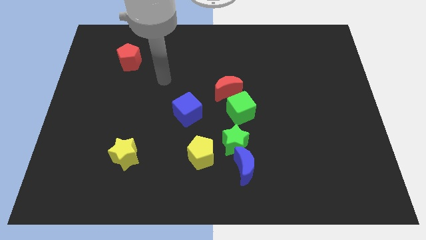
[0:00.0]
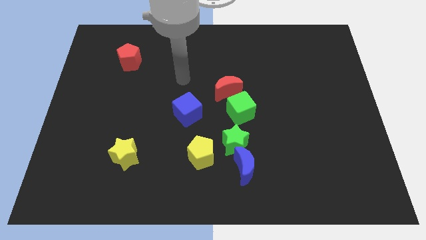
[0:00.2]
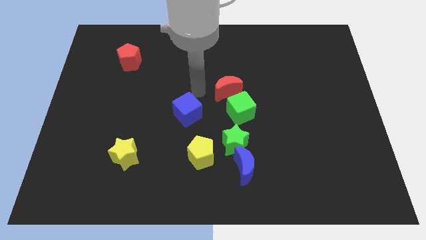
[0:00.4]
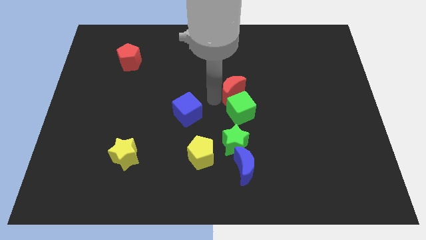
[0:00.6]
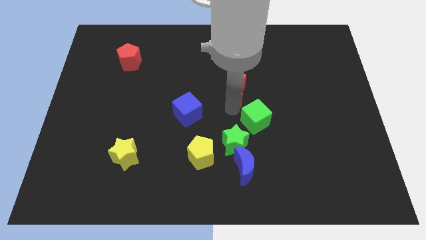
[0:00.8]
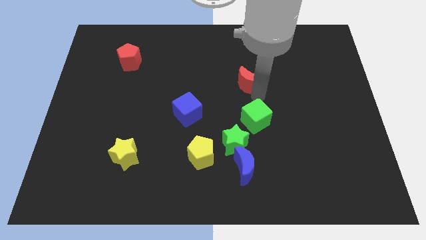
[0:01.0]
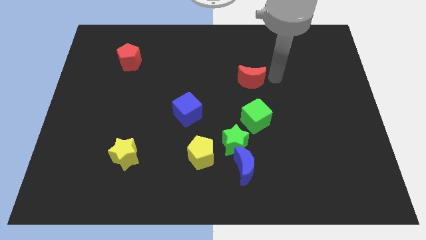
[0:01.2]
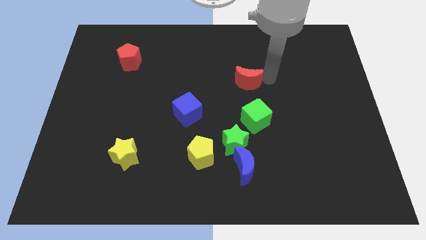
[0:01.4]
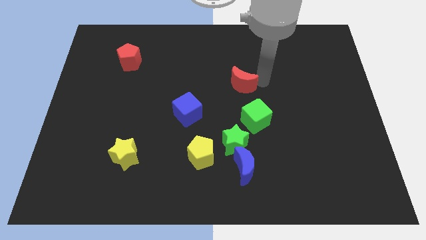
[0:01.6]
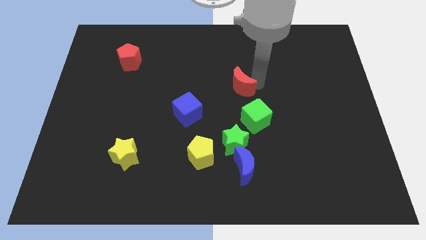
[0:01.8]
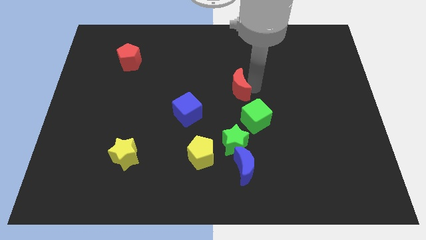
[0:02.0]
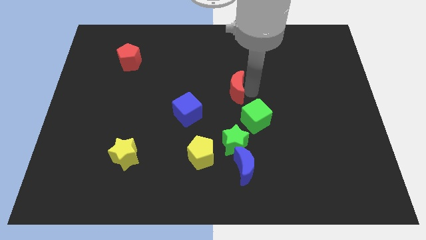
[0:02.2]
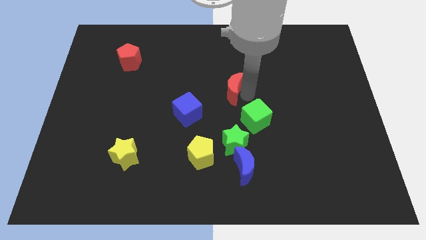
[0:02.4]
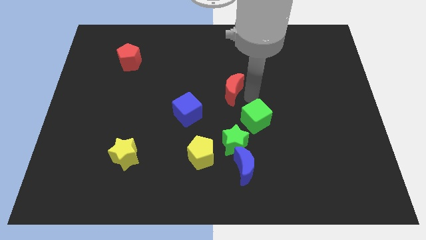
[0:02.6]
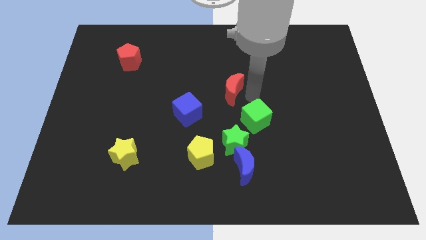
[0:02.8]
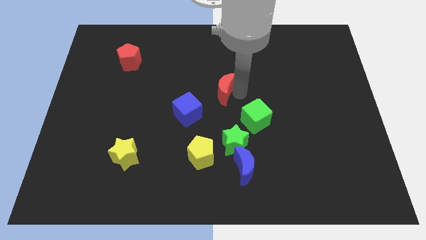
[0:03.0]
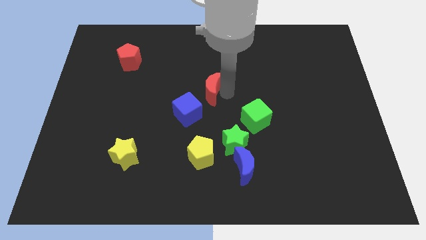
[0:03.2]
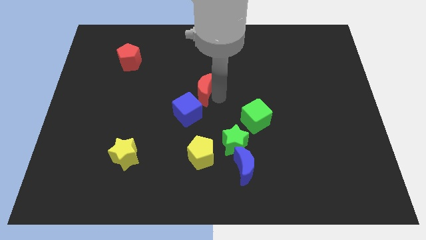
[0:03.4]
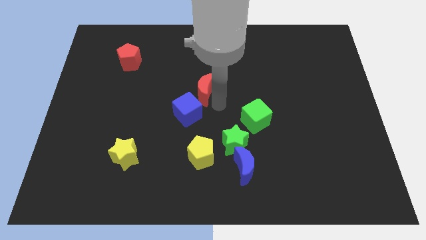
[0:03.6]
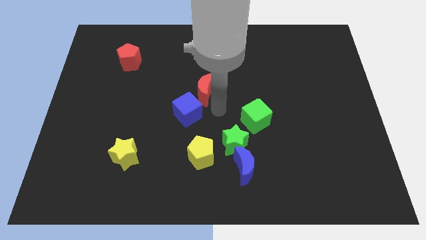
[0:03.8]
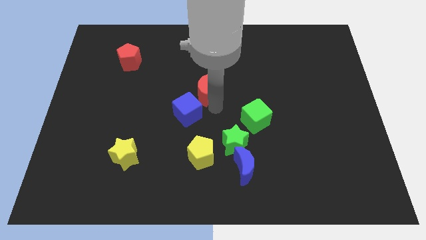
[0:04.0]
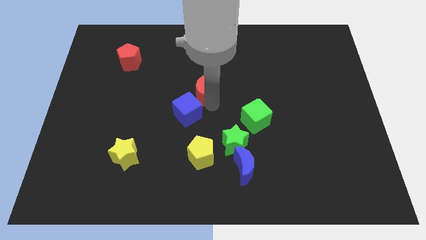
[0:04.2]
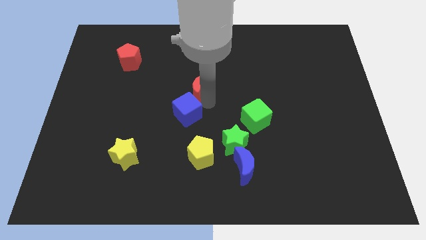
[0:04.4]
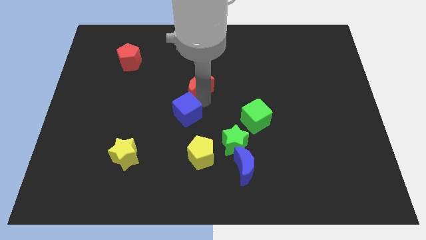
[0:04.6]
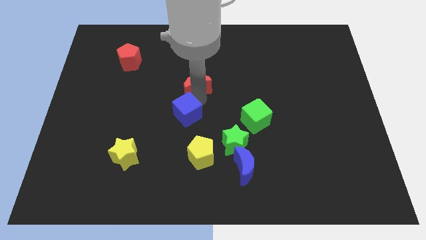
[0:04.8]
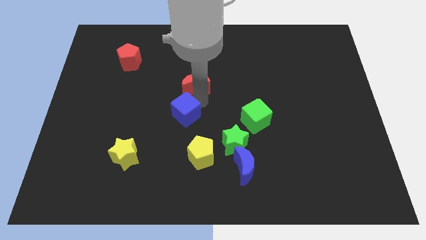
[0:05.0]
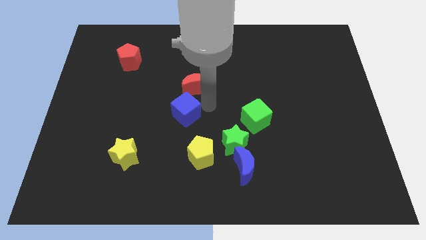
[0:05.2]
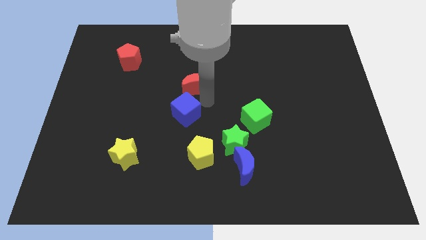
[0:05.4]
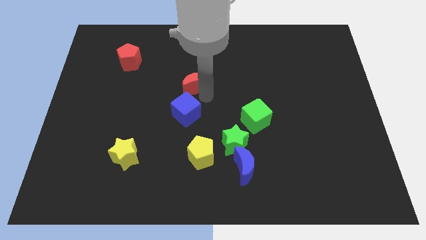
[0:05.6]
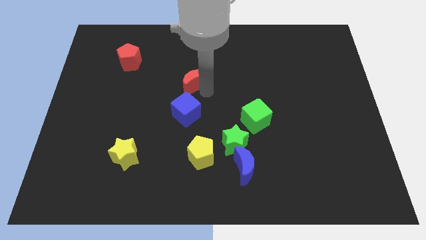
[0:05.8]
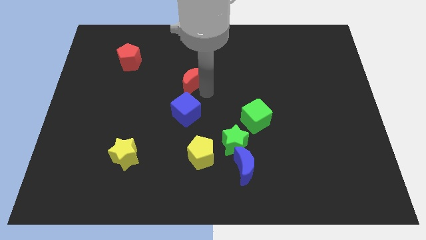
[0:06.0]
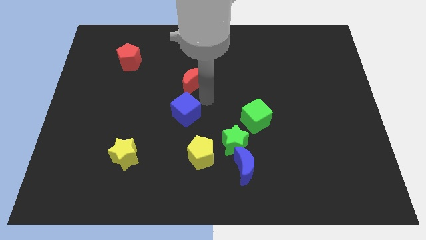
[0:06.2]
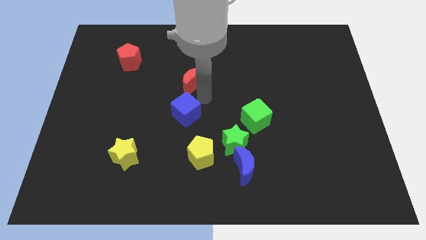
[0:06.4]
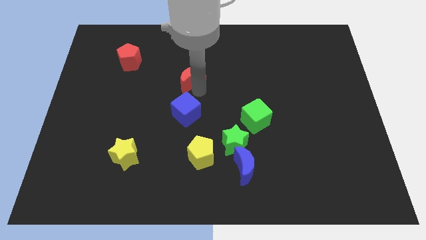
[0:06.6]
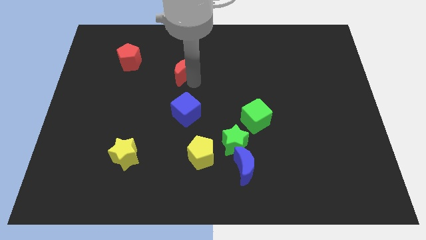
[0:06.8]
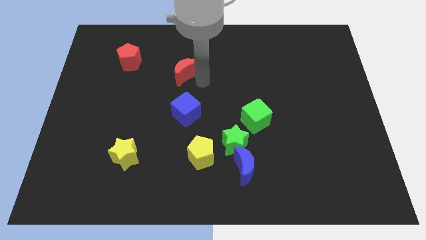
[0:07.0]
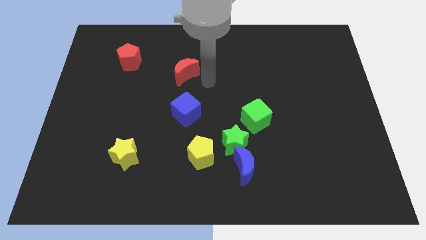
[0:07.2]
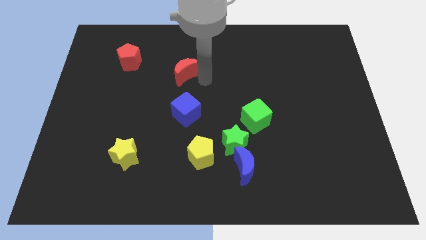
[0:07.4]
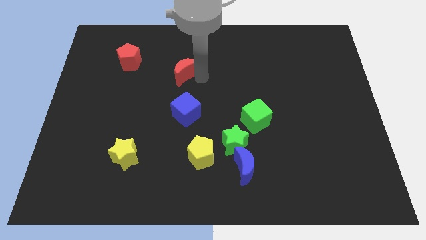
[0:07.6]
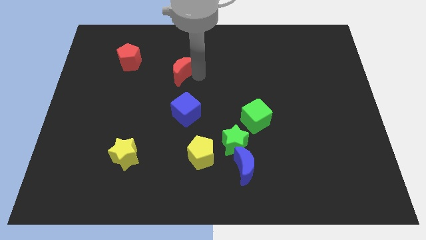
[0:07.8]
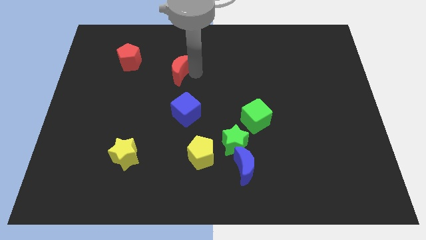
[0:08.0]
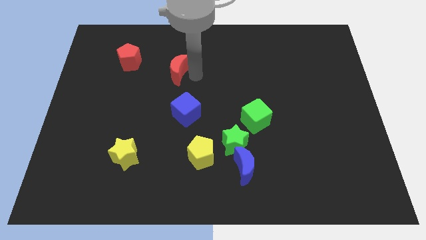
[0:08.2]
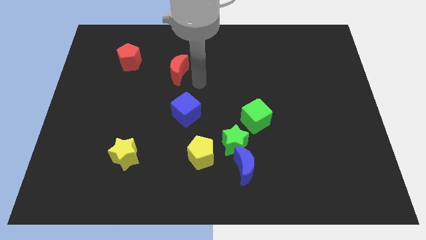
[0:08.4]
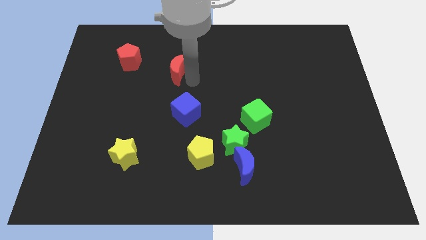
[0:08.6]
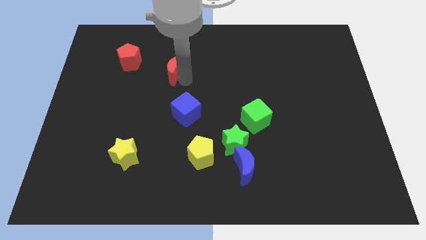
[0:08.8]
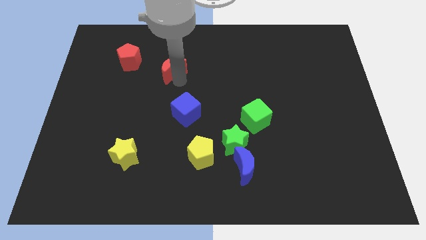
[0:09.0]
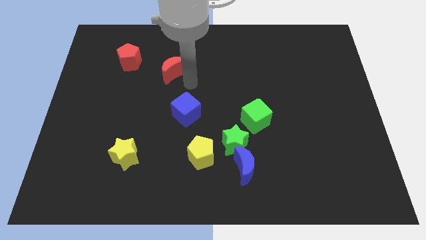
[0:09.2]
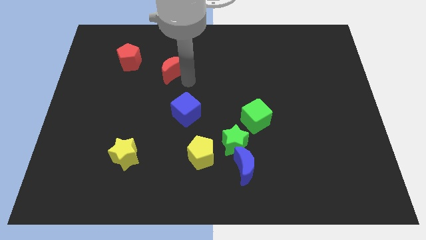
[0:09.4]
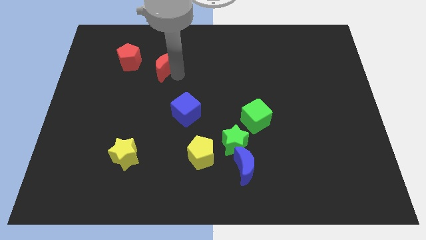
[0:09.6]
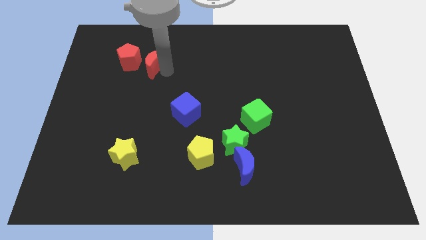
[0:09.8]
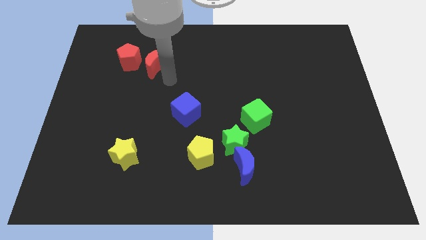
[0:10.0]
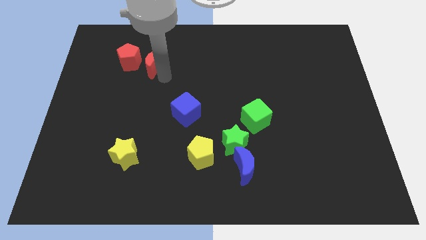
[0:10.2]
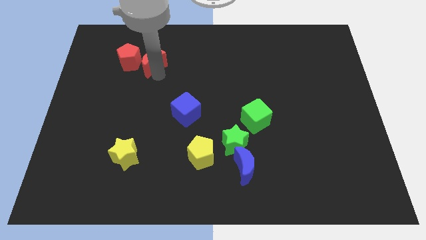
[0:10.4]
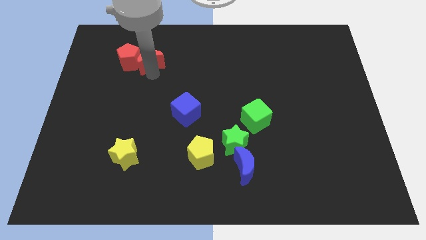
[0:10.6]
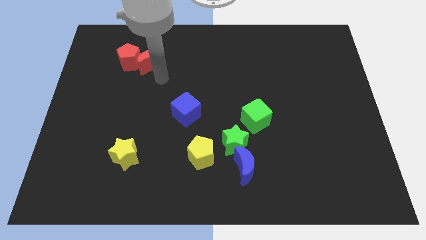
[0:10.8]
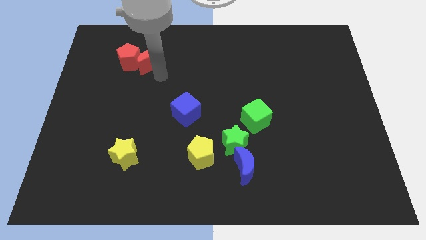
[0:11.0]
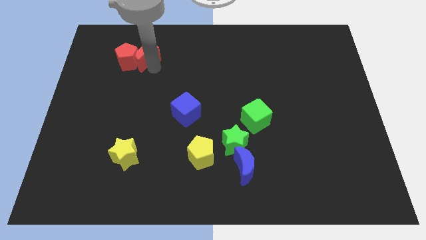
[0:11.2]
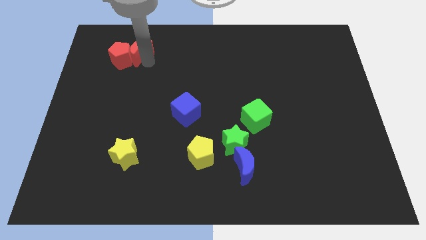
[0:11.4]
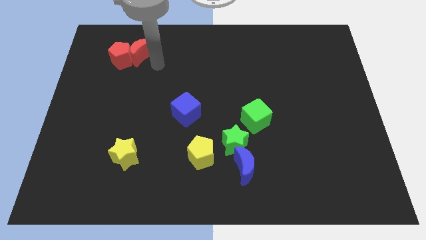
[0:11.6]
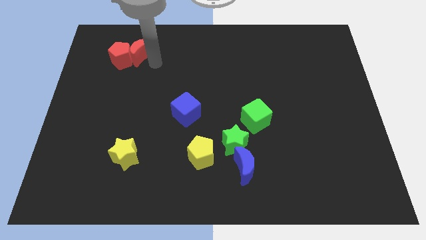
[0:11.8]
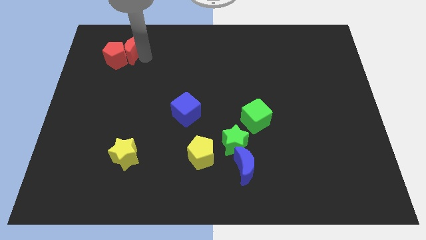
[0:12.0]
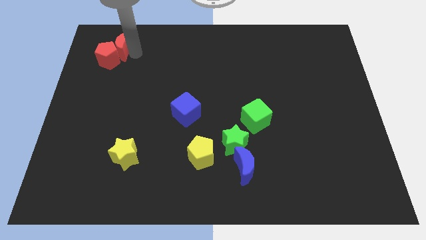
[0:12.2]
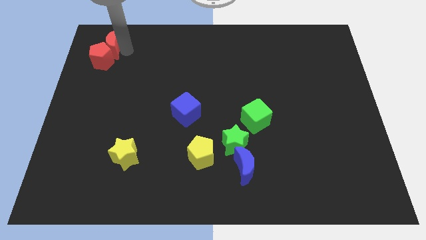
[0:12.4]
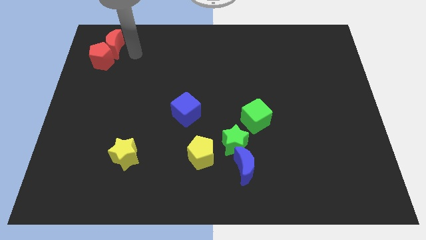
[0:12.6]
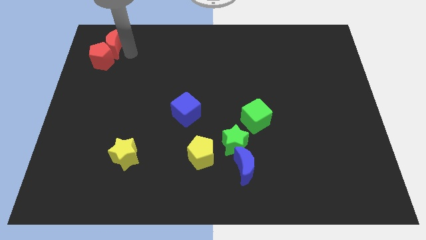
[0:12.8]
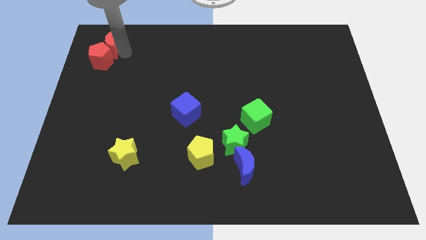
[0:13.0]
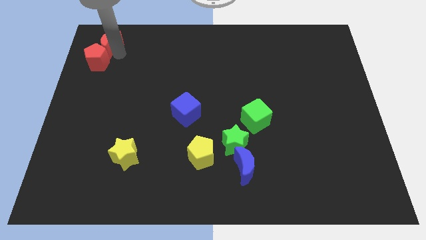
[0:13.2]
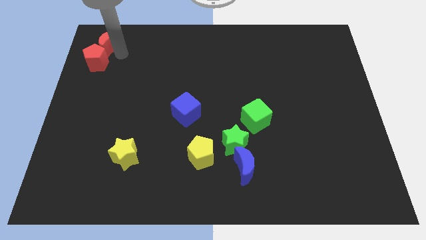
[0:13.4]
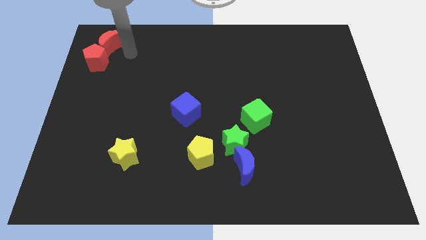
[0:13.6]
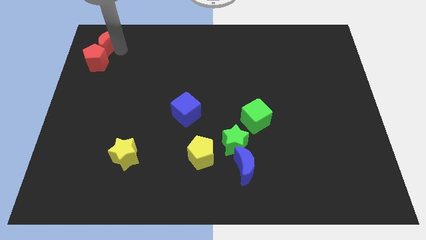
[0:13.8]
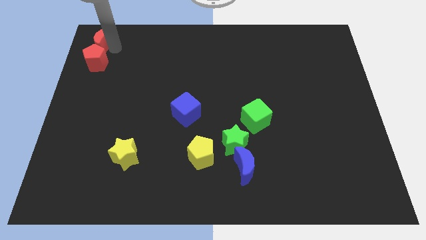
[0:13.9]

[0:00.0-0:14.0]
push the red moon to the upper left corner
